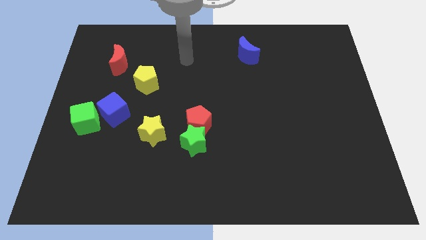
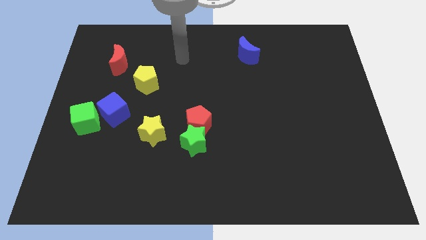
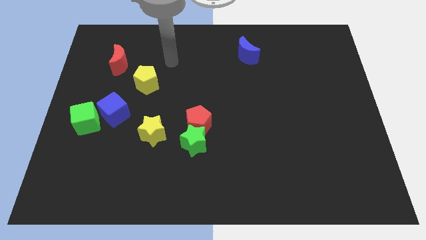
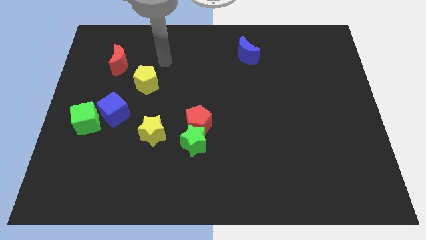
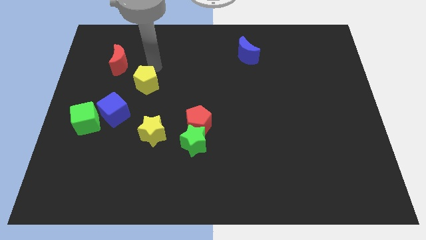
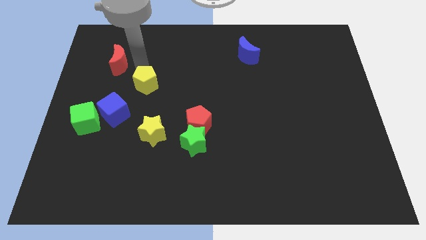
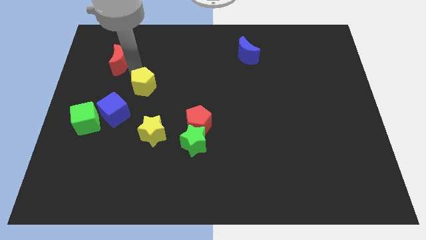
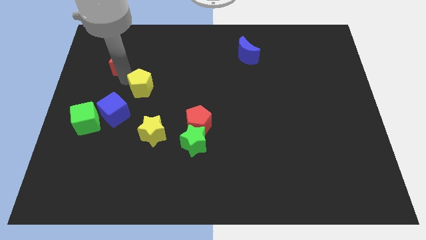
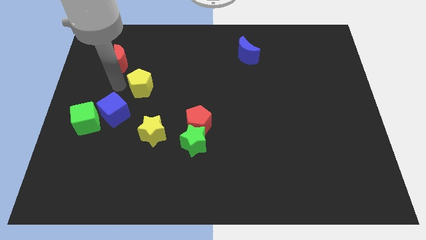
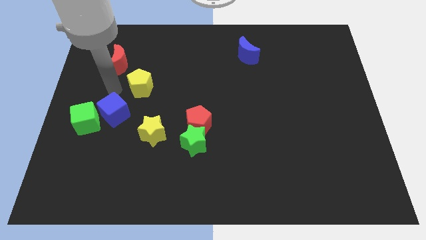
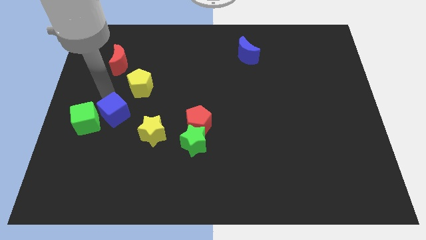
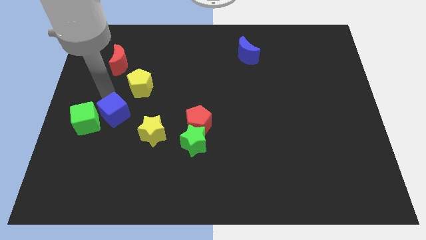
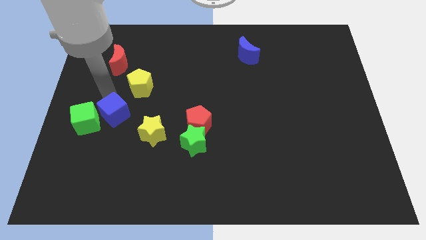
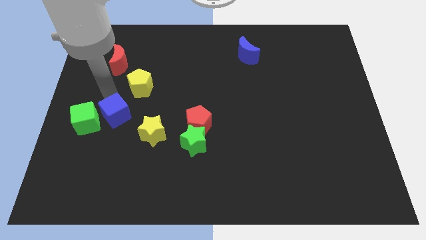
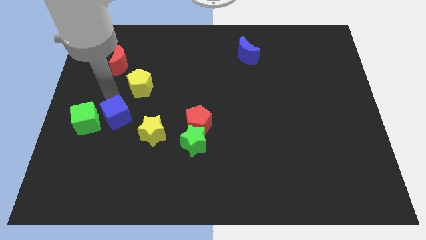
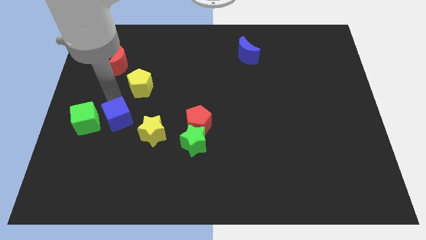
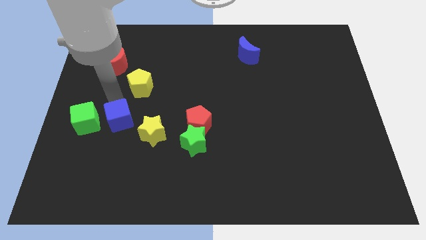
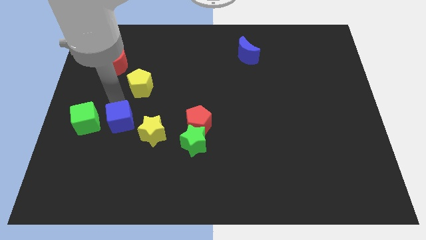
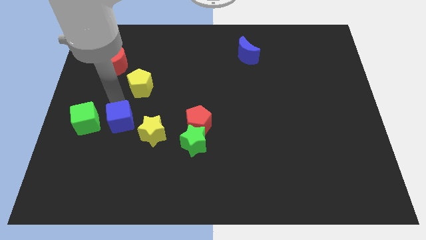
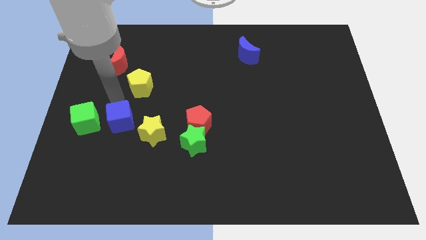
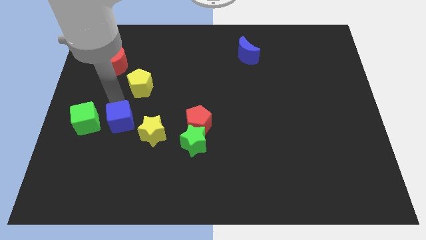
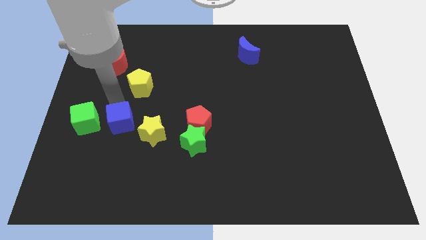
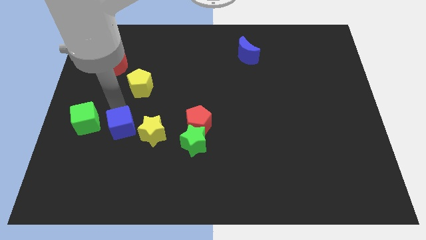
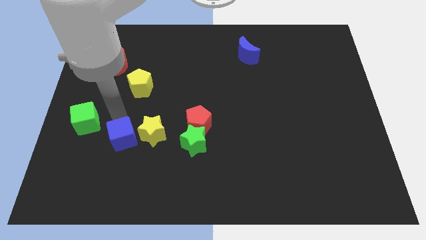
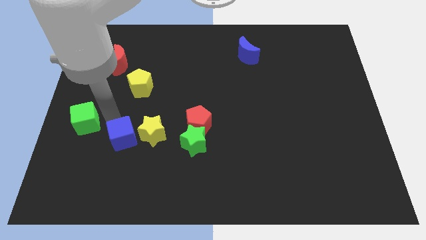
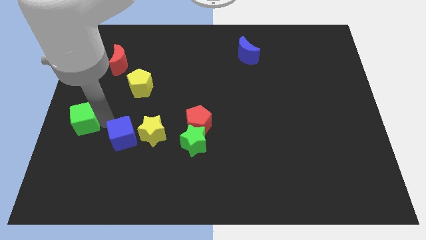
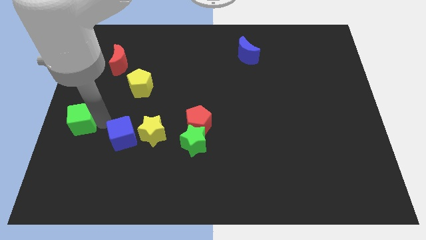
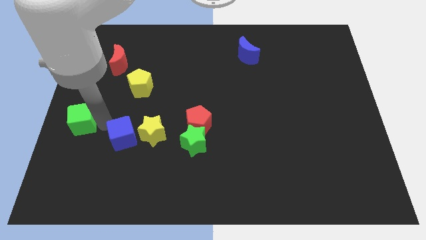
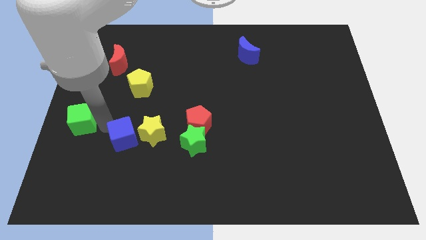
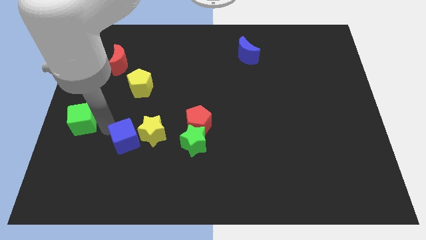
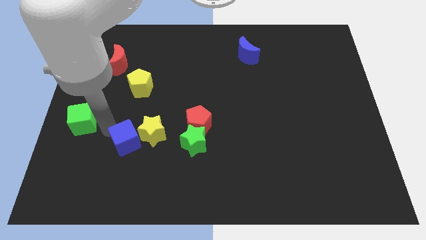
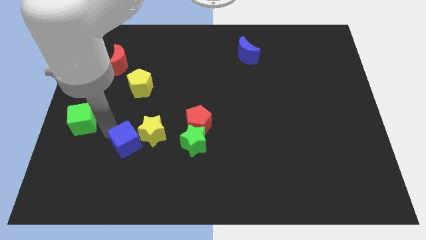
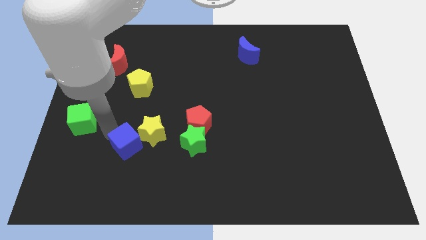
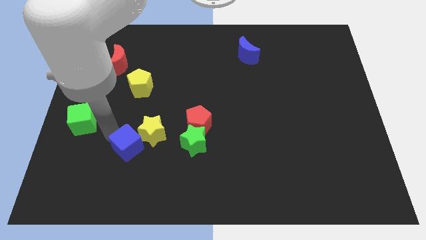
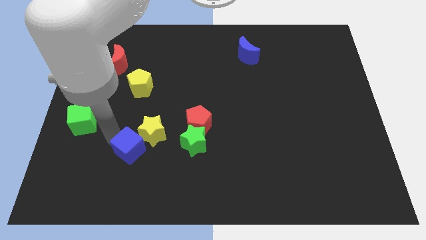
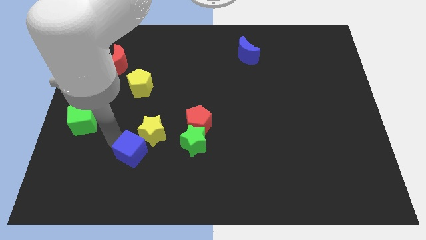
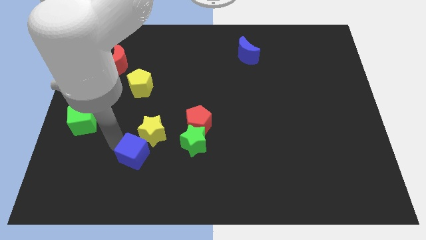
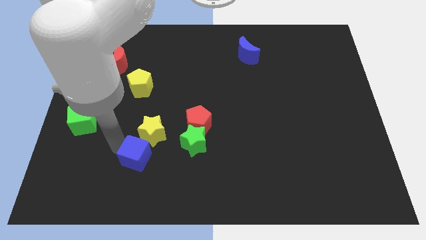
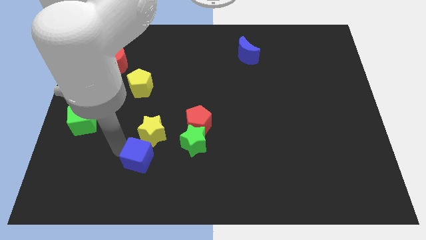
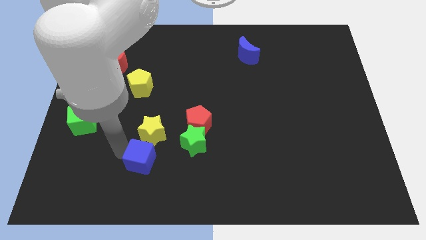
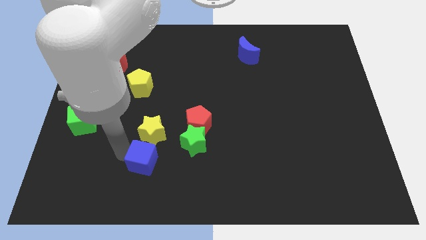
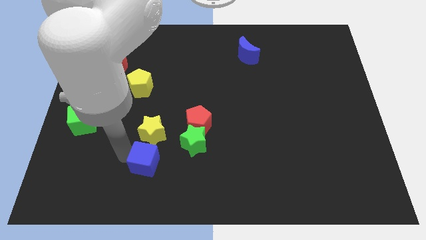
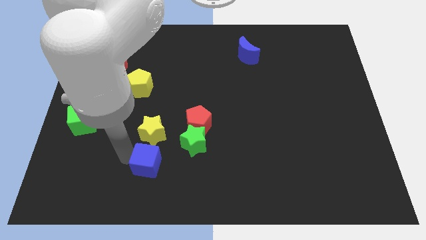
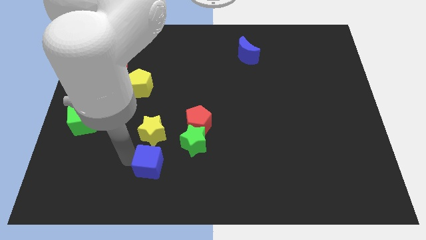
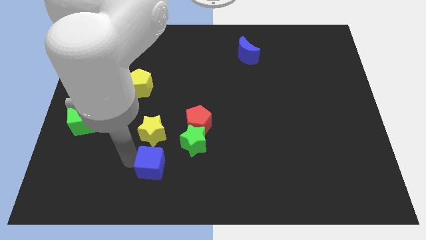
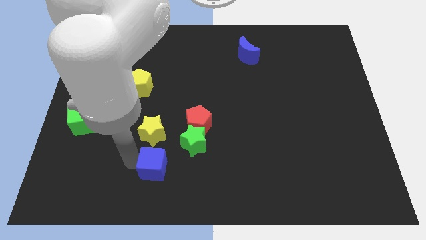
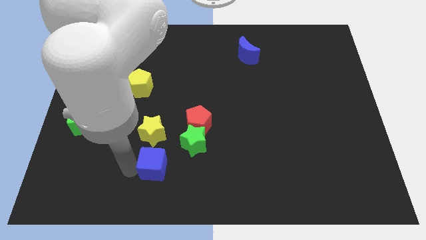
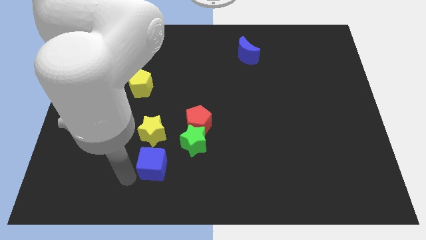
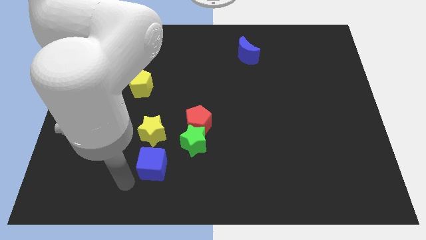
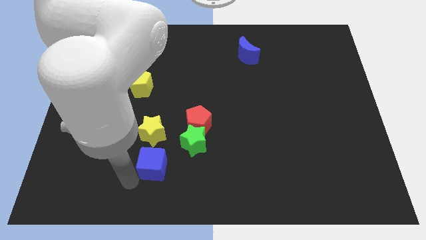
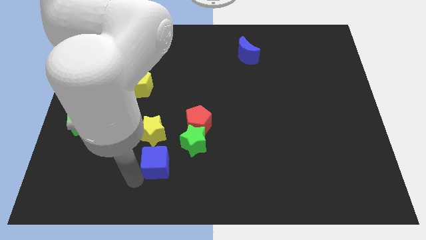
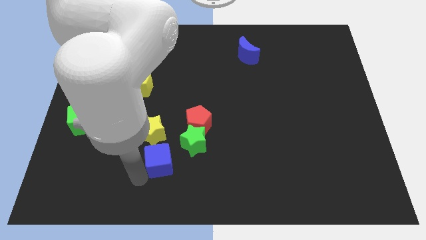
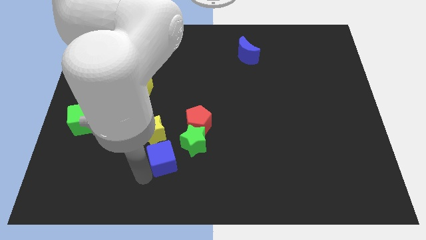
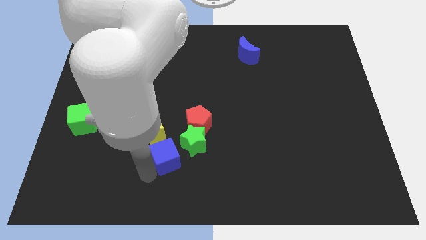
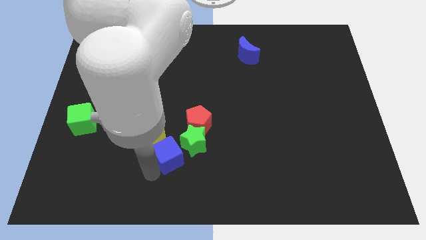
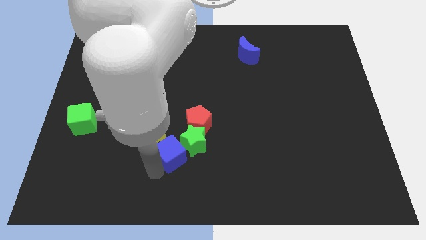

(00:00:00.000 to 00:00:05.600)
move the blue cube towards the green star
